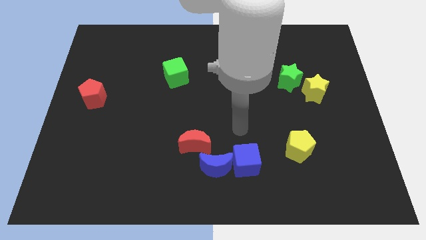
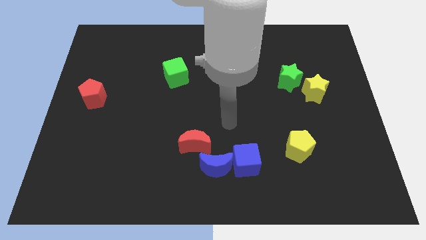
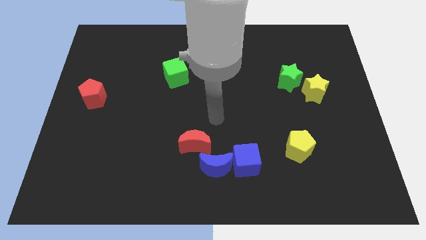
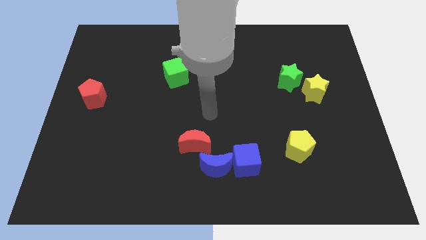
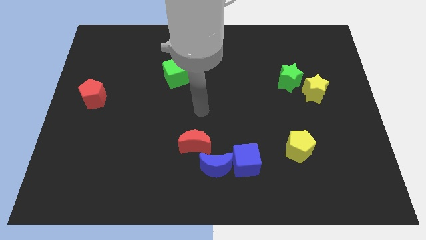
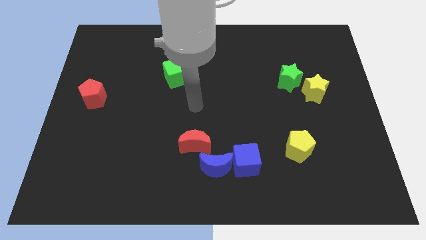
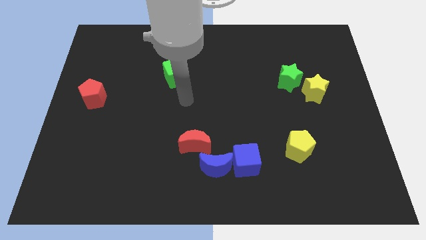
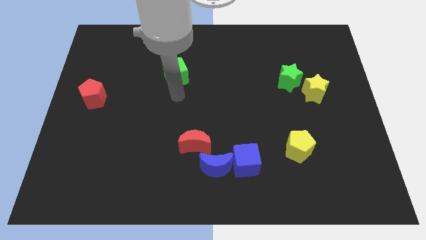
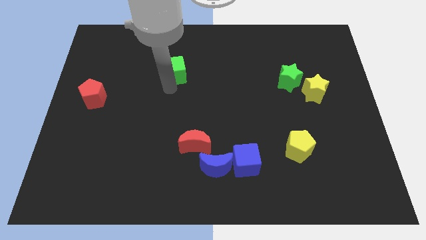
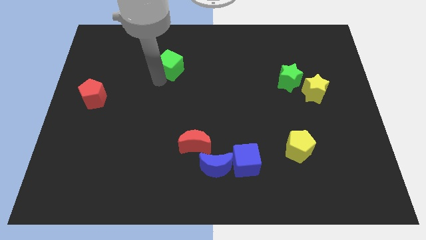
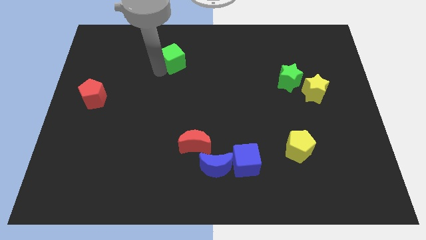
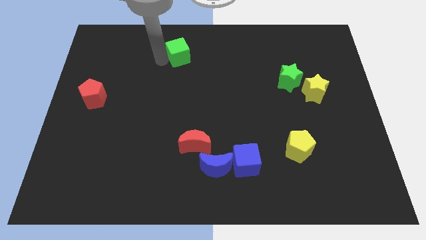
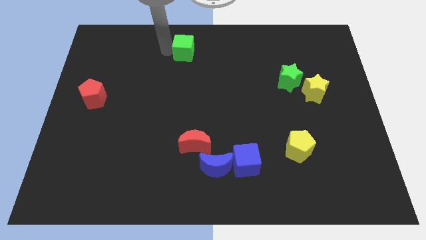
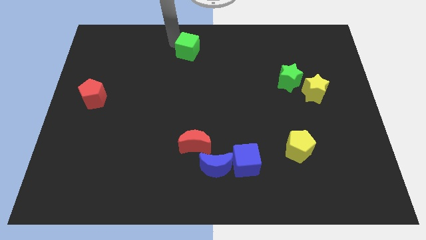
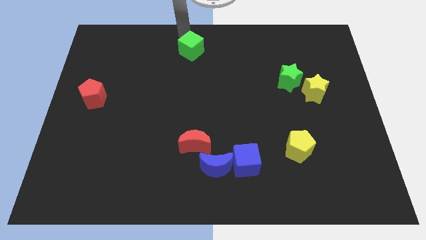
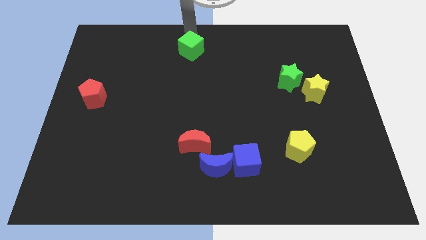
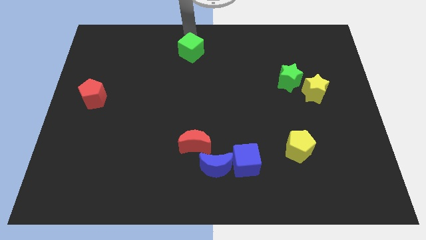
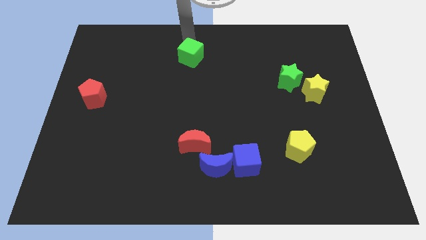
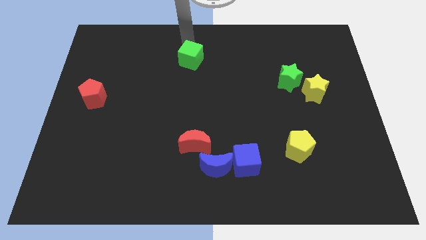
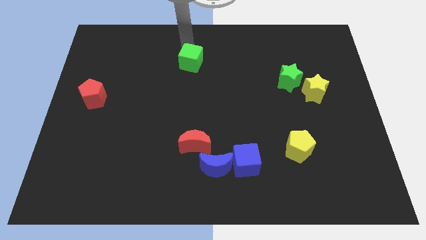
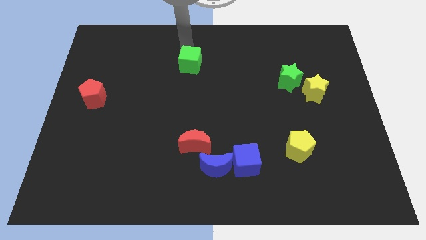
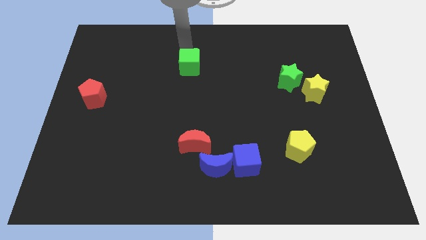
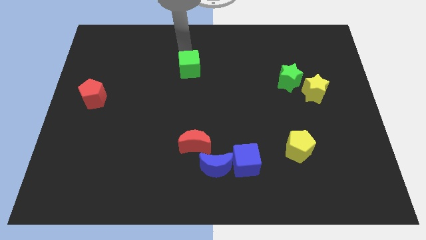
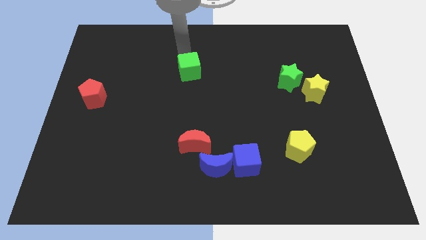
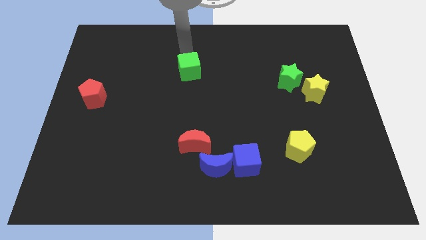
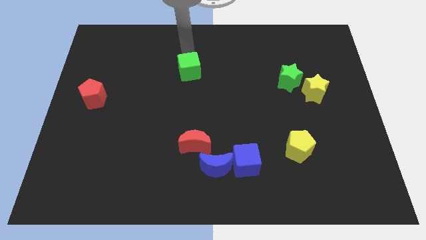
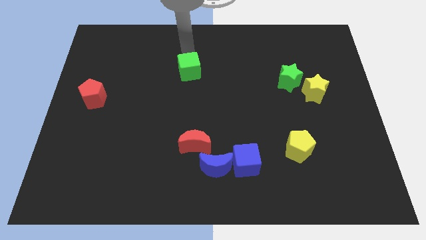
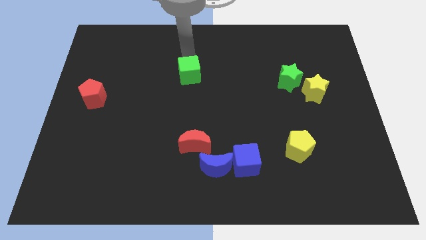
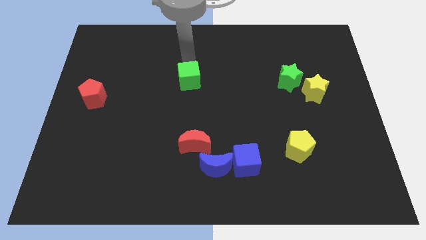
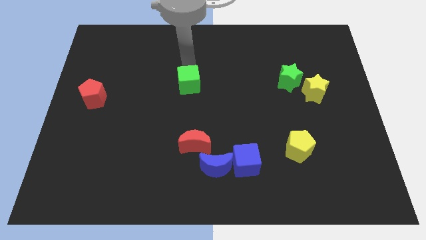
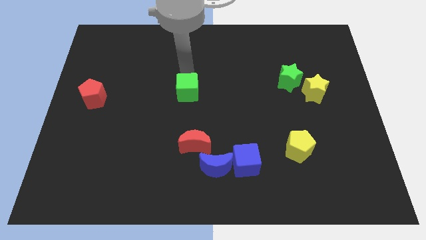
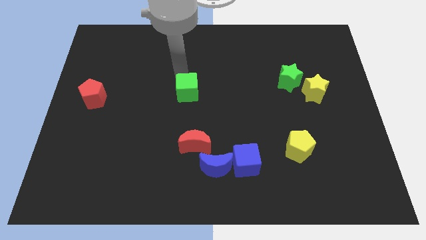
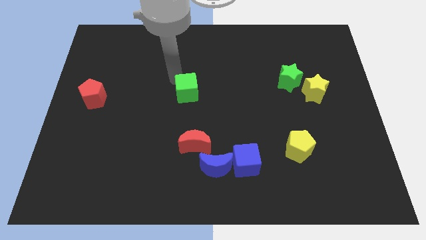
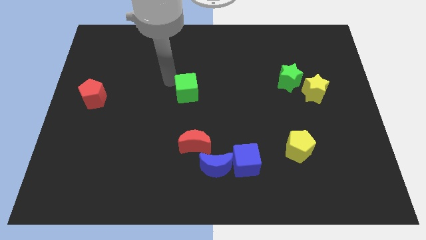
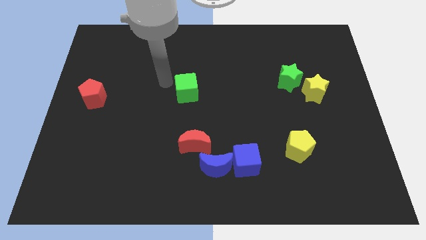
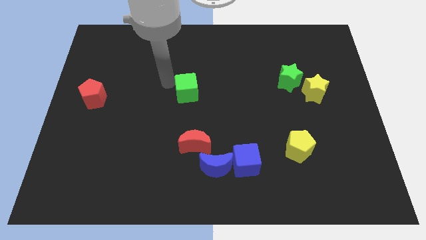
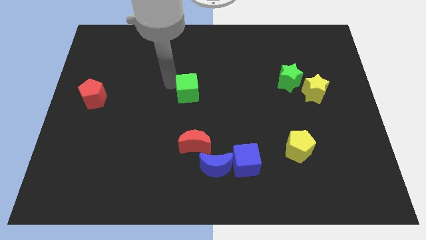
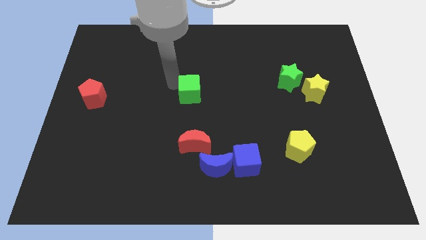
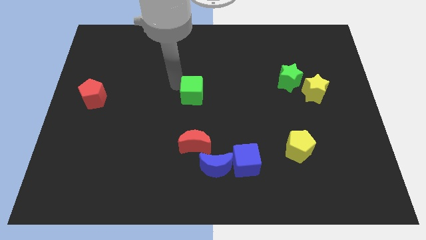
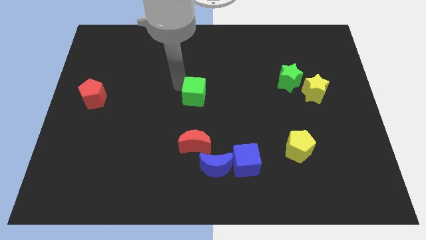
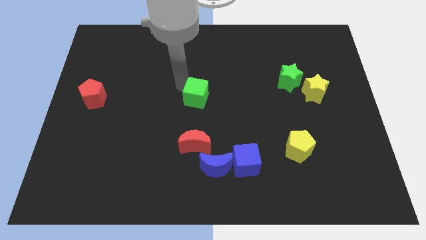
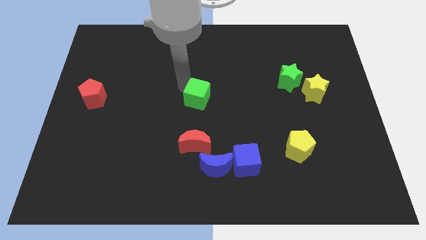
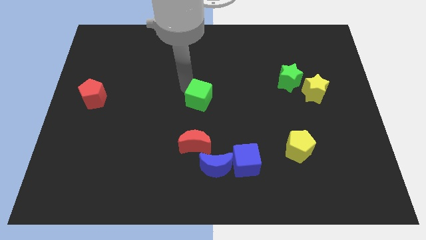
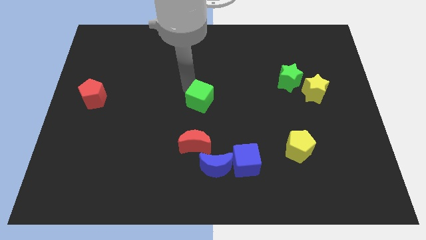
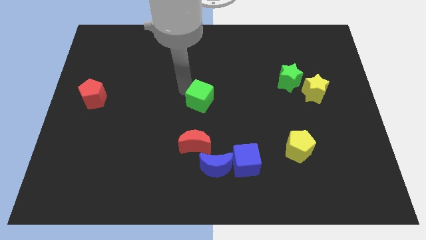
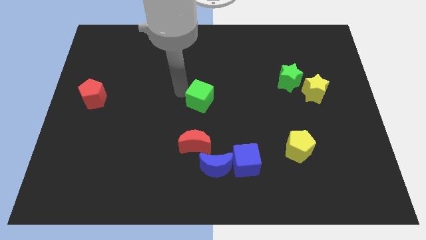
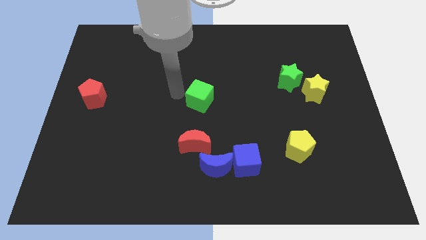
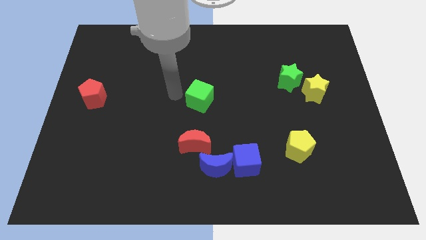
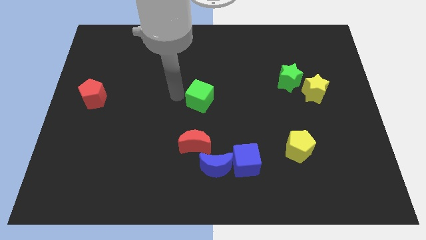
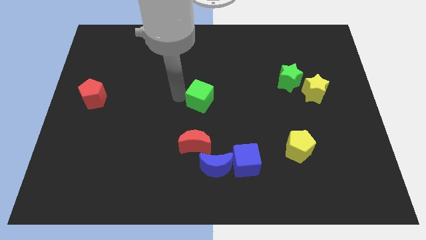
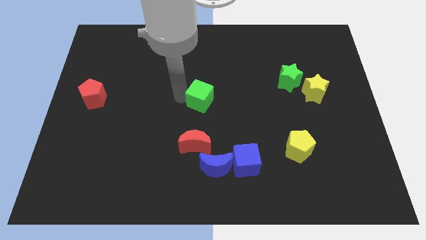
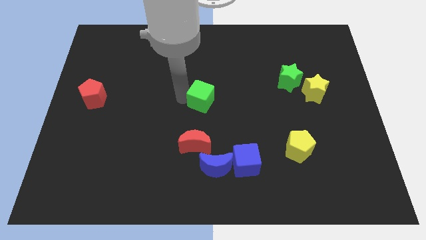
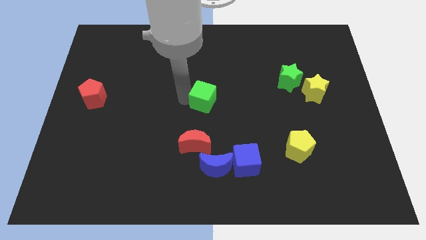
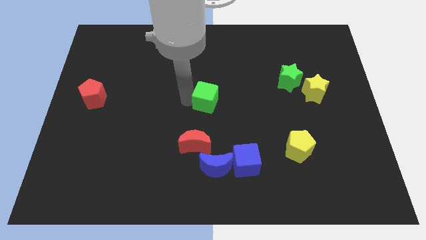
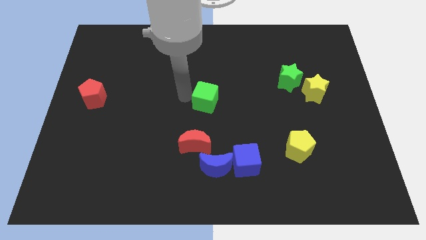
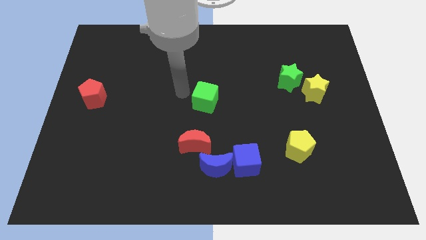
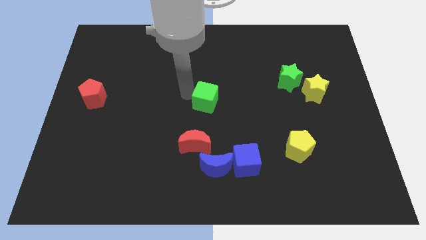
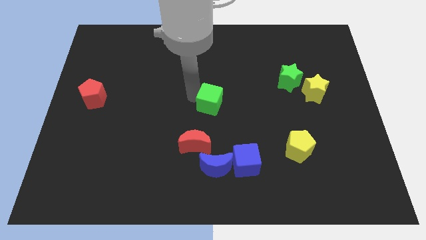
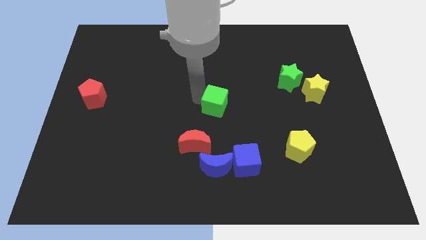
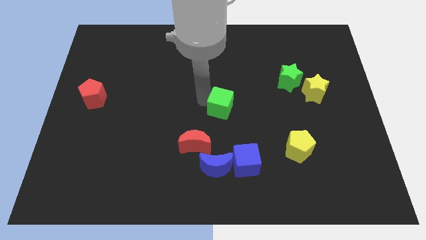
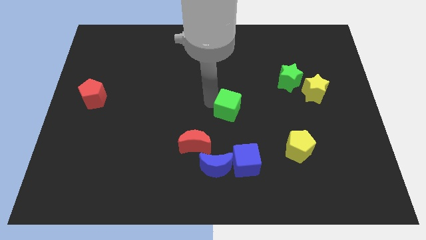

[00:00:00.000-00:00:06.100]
move the green cube to the top of the blue cube

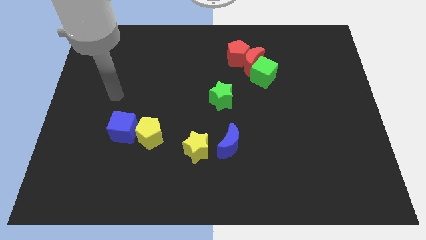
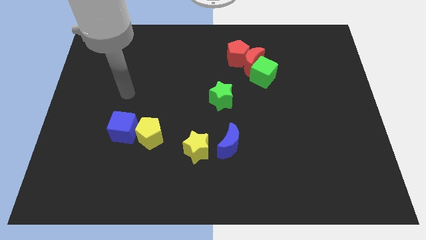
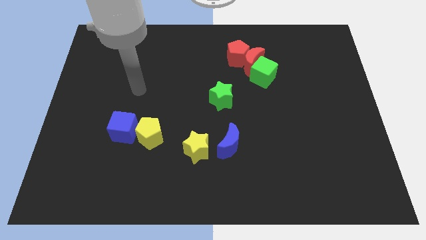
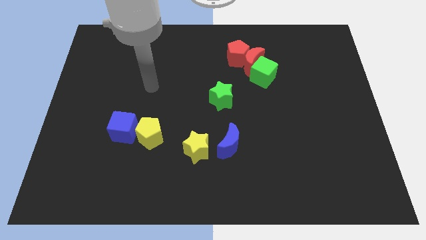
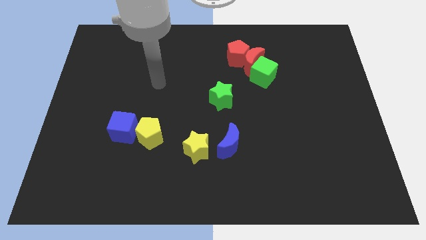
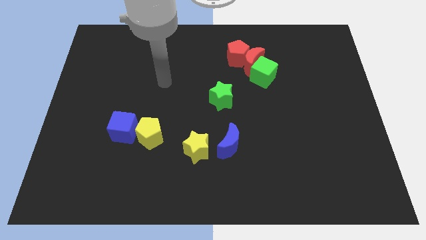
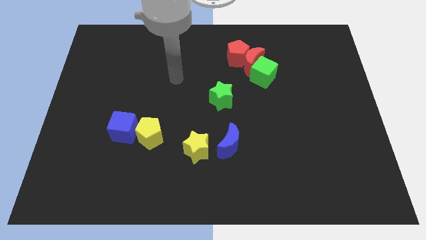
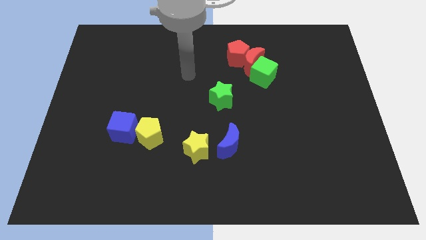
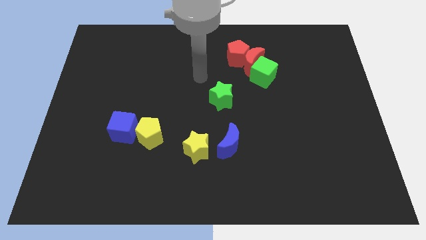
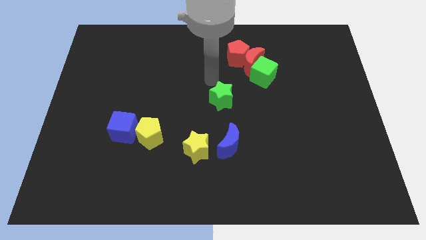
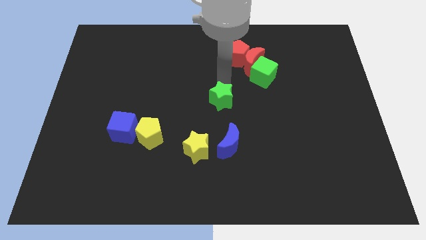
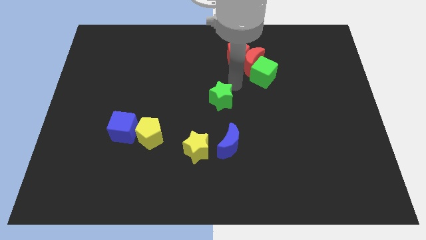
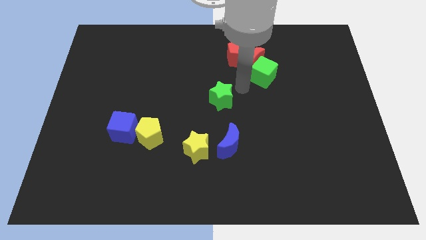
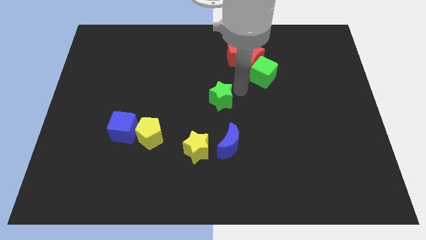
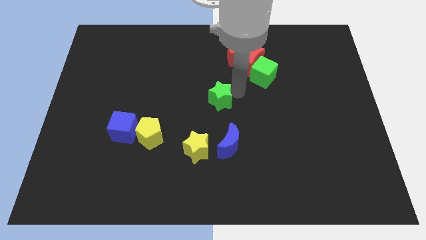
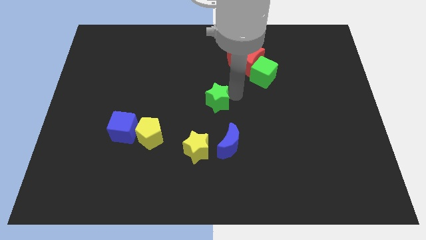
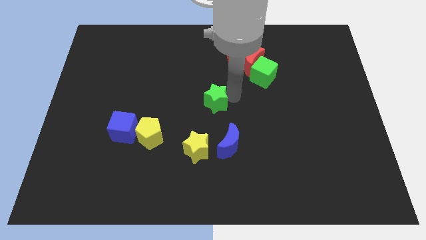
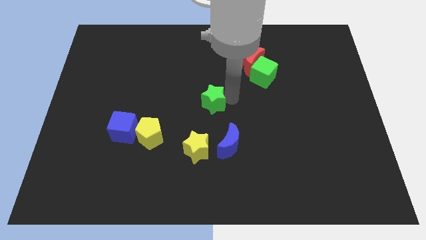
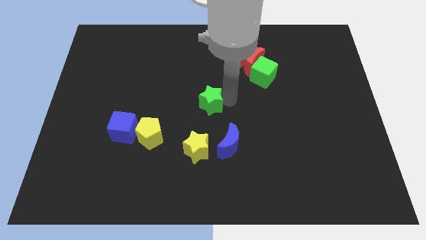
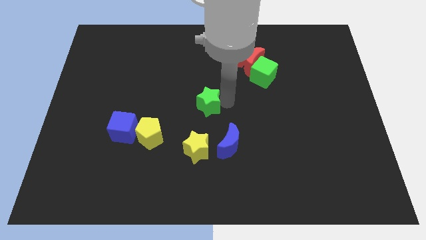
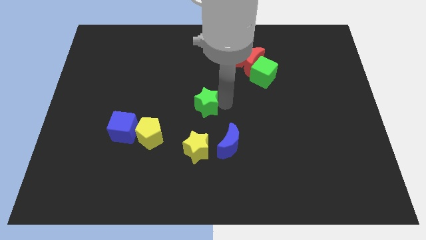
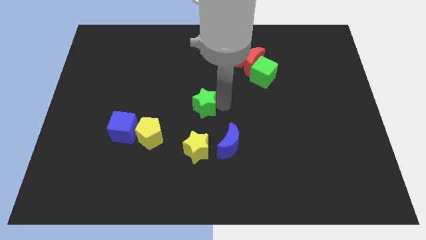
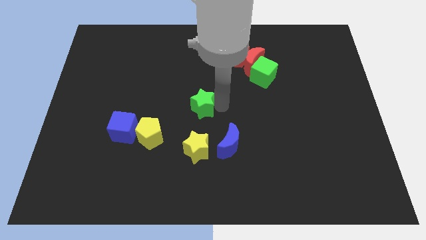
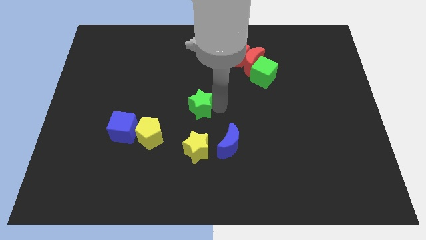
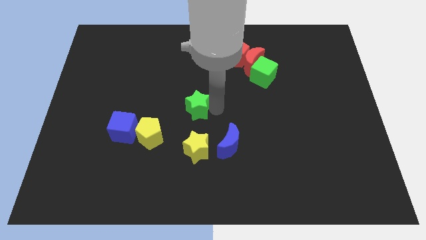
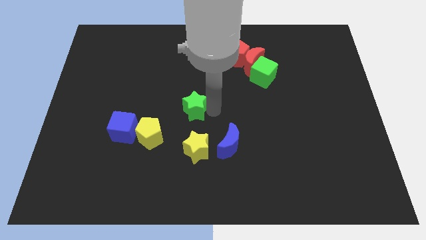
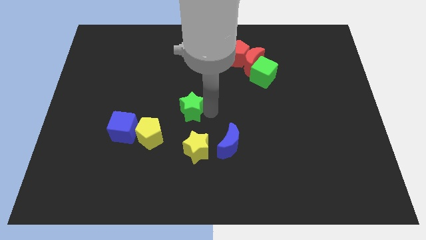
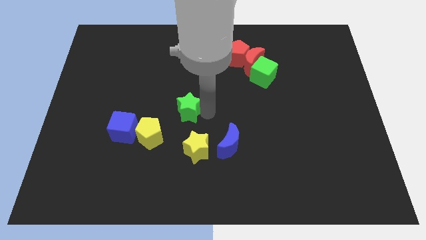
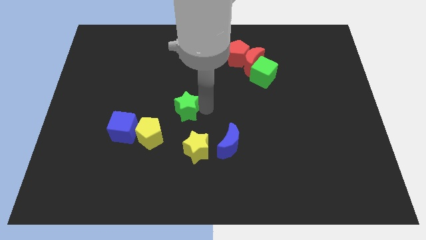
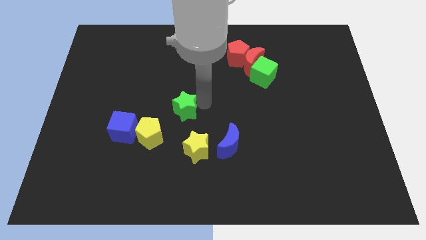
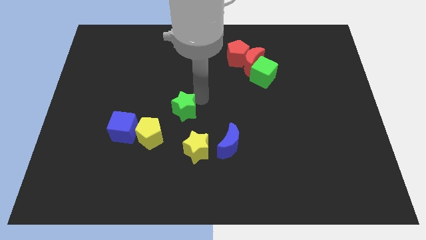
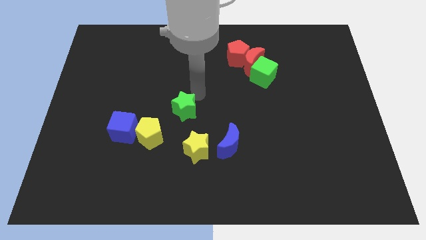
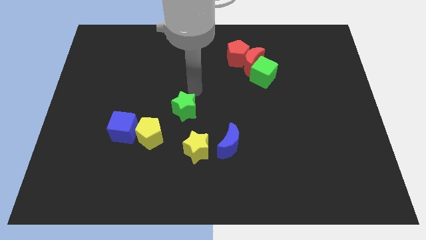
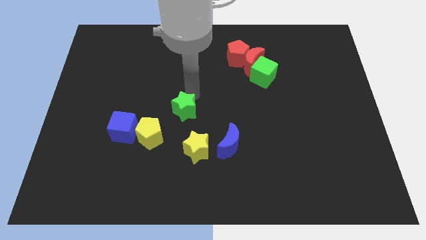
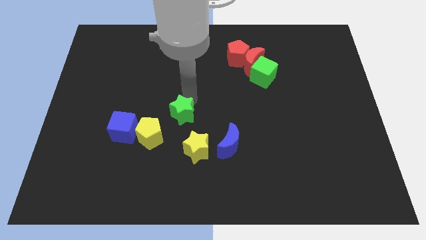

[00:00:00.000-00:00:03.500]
put the green star diagonally up and to the left of the yellow star
